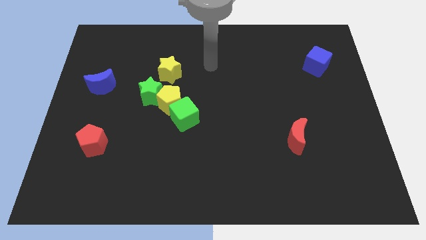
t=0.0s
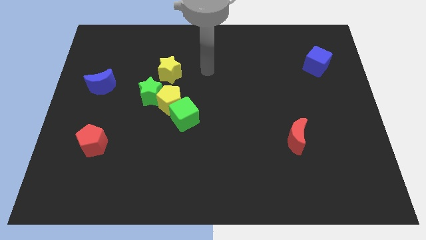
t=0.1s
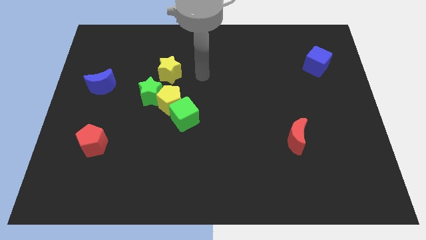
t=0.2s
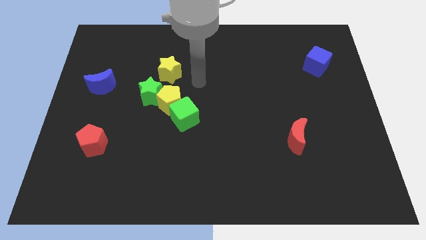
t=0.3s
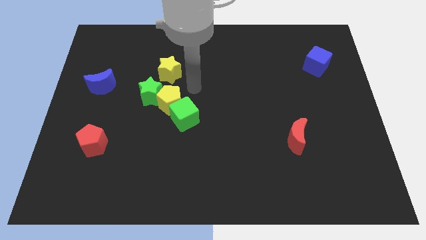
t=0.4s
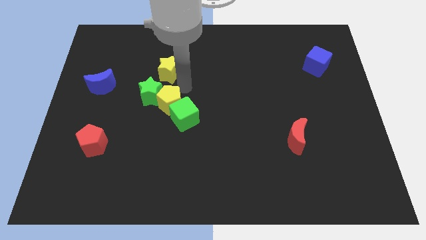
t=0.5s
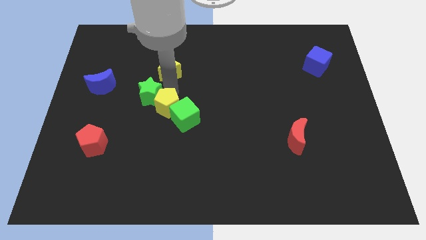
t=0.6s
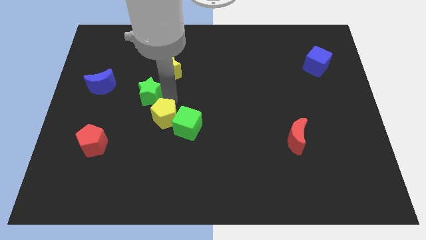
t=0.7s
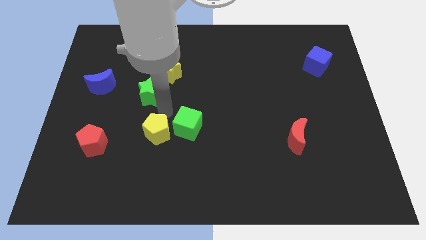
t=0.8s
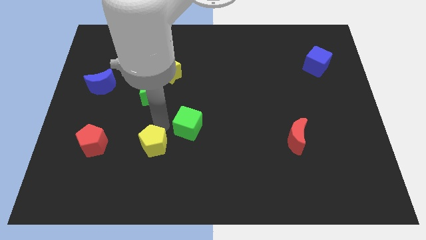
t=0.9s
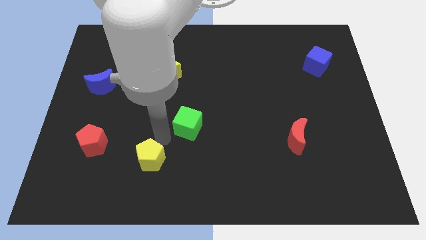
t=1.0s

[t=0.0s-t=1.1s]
move the green cube away from the yellow pentagon

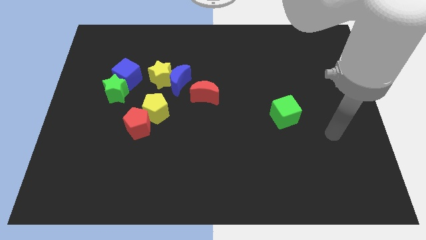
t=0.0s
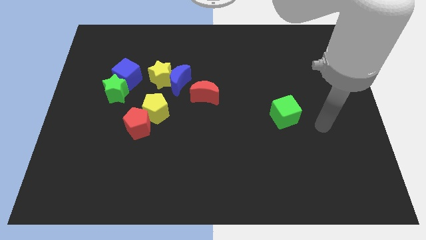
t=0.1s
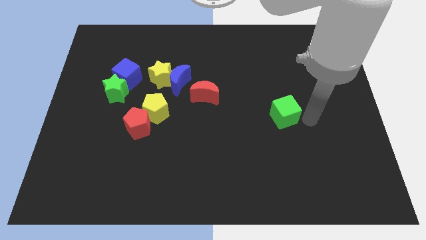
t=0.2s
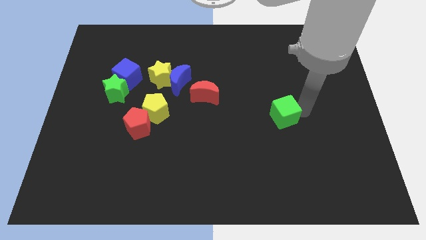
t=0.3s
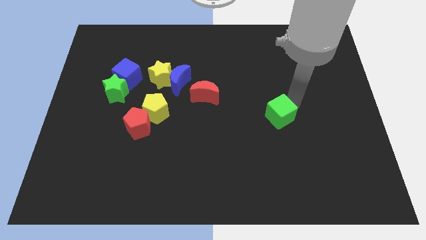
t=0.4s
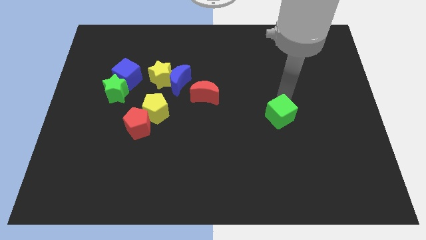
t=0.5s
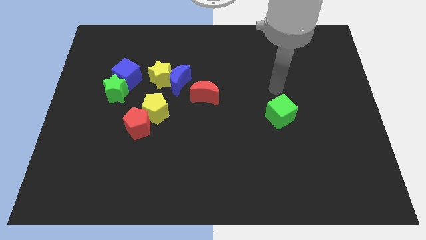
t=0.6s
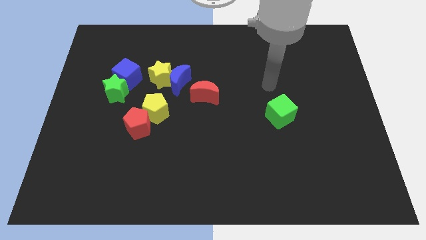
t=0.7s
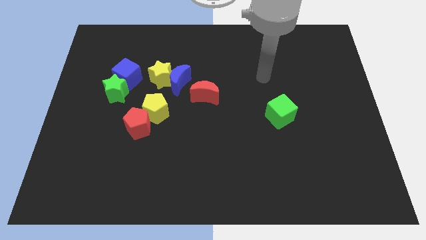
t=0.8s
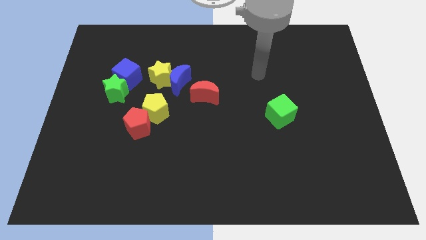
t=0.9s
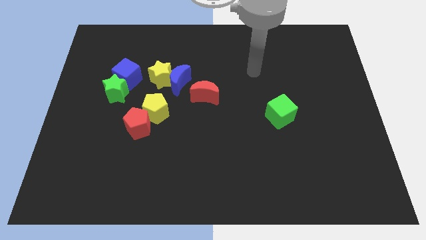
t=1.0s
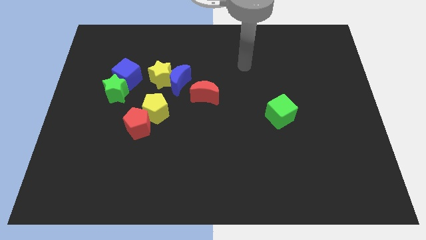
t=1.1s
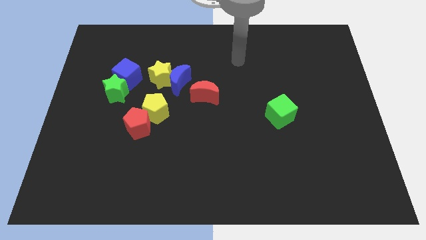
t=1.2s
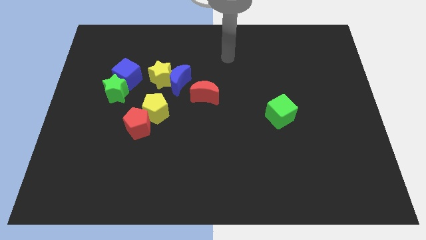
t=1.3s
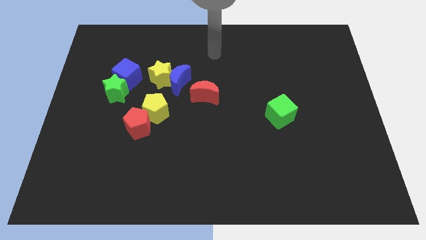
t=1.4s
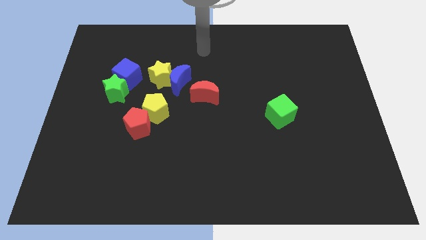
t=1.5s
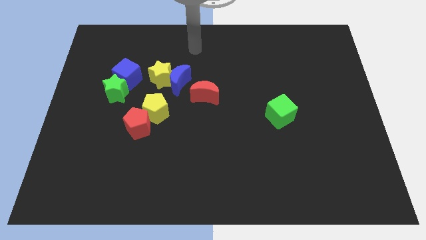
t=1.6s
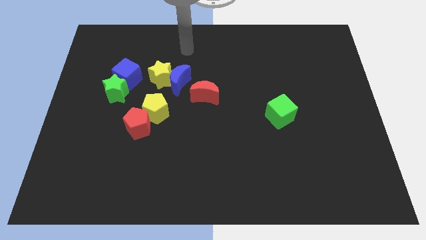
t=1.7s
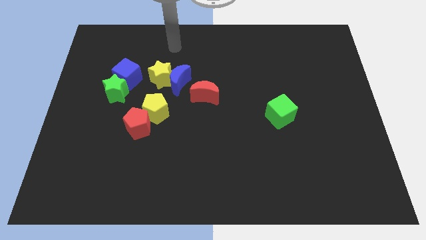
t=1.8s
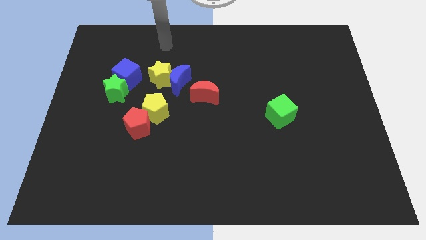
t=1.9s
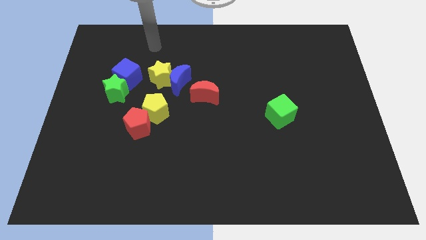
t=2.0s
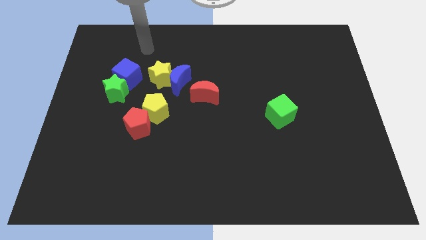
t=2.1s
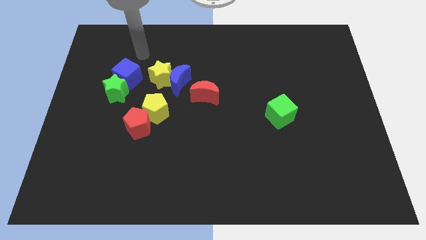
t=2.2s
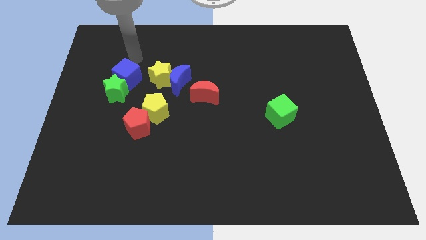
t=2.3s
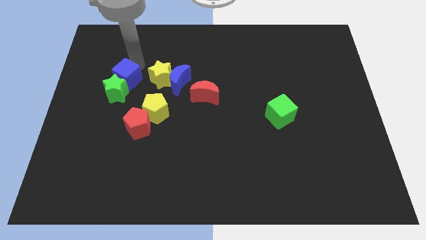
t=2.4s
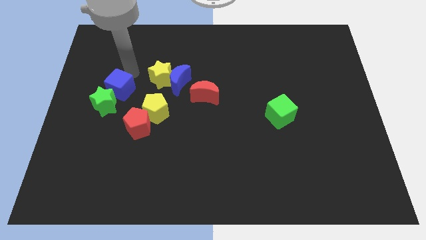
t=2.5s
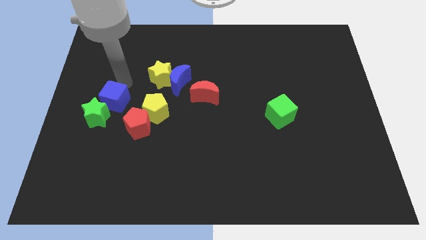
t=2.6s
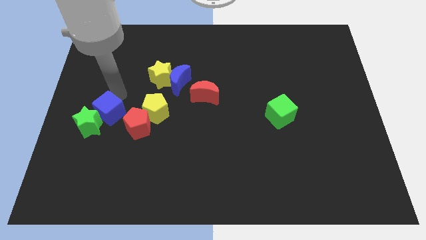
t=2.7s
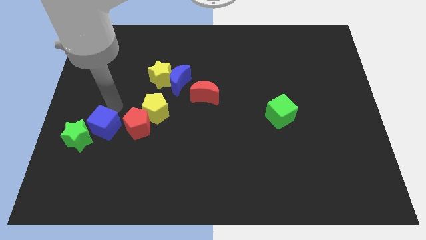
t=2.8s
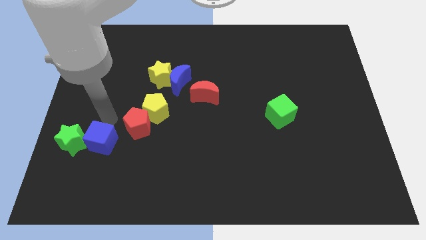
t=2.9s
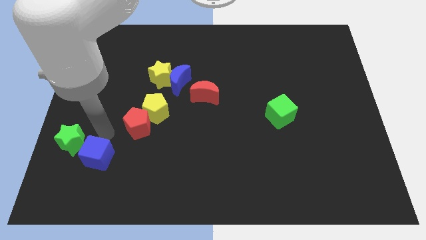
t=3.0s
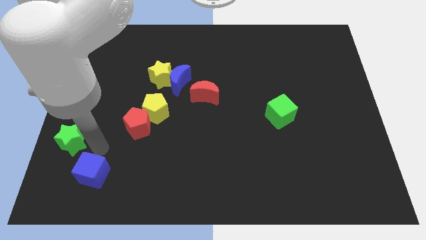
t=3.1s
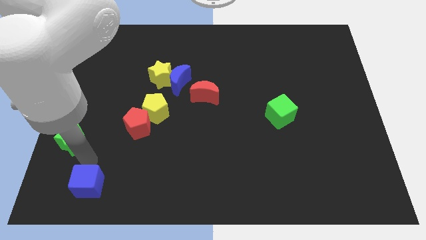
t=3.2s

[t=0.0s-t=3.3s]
separate the green star from the blue cube

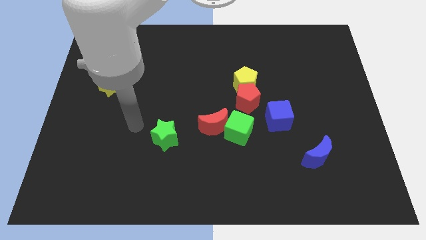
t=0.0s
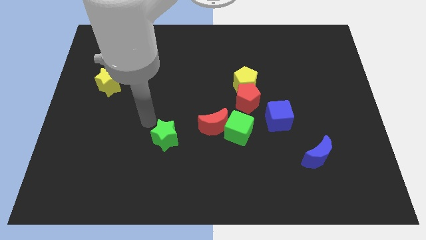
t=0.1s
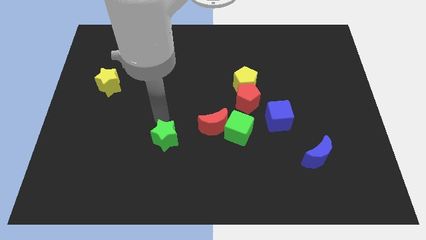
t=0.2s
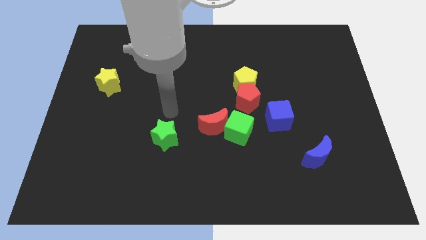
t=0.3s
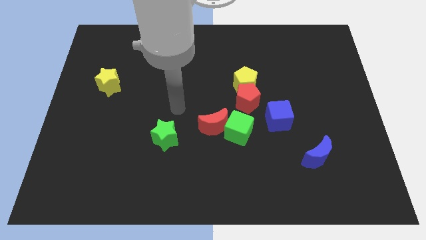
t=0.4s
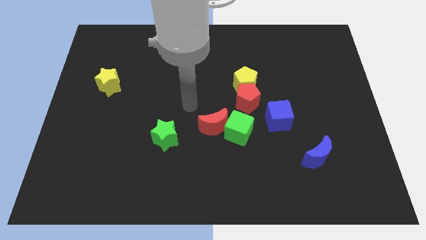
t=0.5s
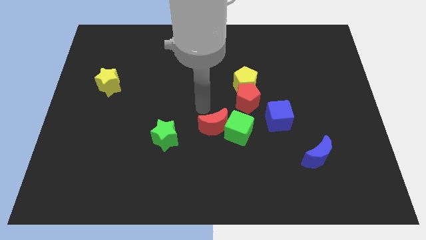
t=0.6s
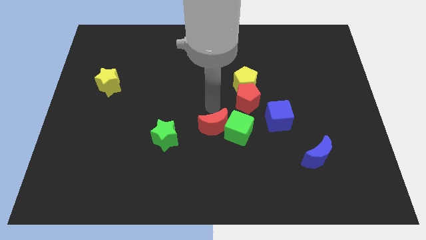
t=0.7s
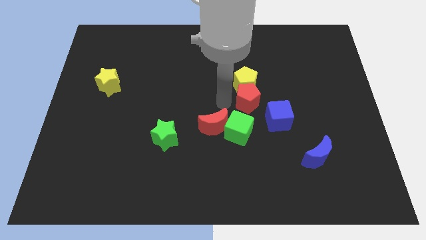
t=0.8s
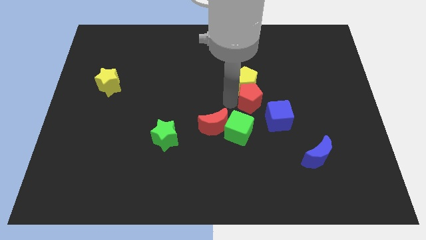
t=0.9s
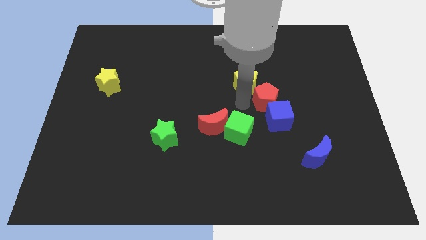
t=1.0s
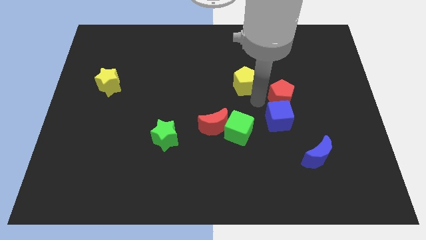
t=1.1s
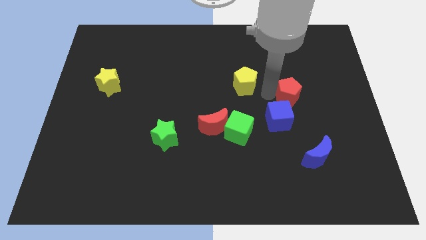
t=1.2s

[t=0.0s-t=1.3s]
separate the yellow pentagon from the red pentagon

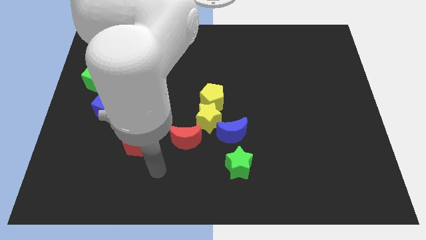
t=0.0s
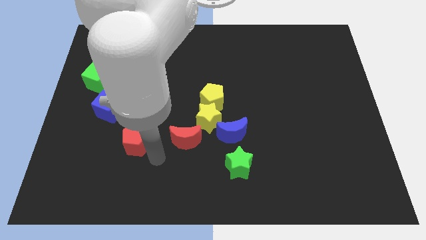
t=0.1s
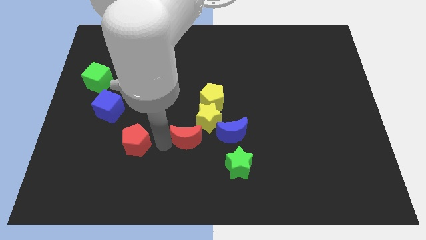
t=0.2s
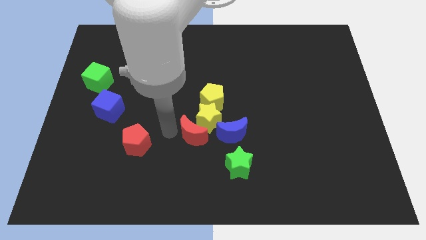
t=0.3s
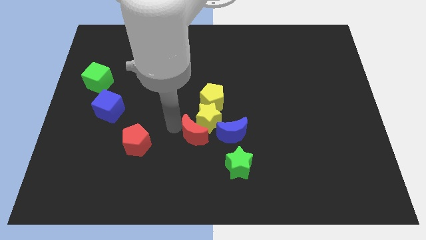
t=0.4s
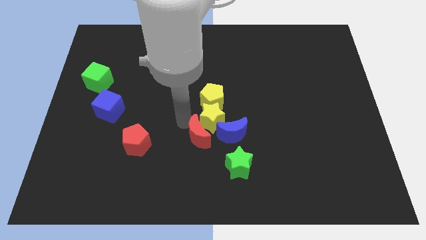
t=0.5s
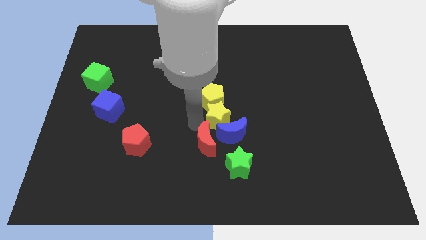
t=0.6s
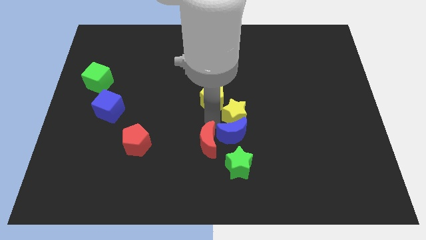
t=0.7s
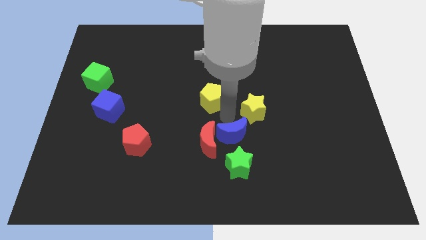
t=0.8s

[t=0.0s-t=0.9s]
separate the yellow pentagon from the yellow star

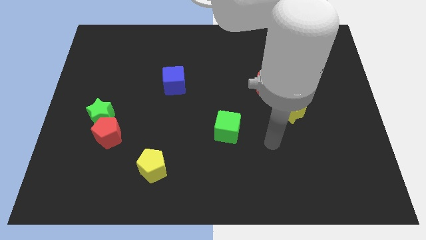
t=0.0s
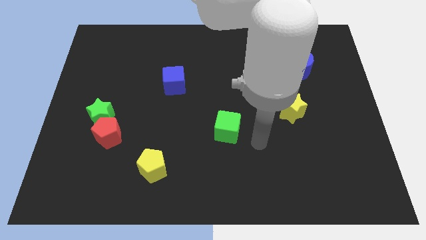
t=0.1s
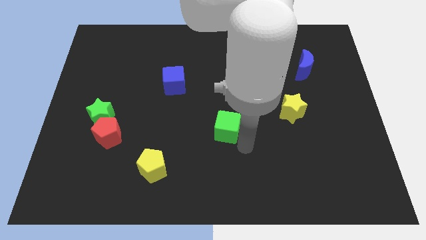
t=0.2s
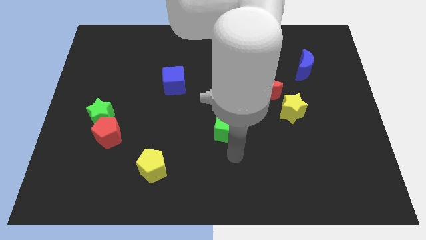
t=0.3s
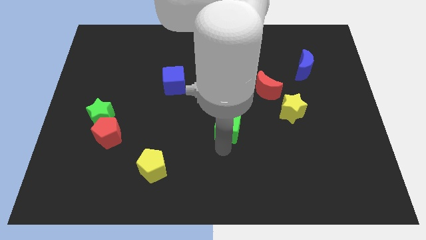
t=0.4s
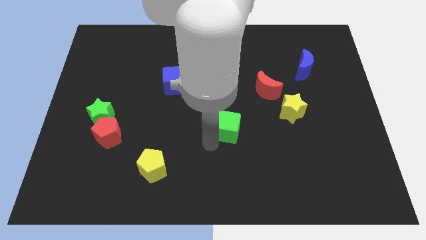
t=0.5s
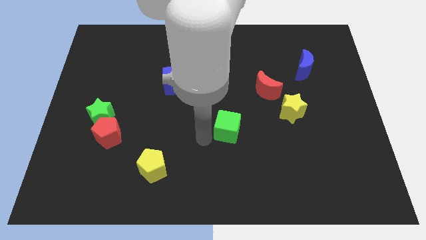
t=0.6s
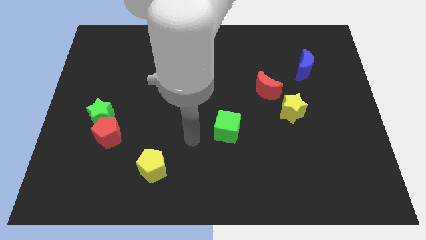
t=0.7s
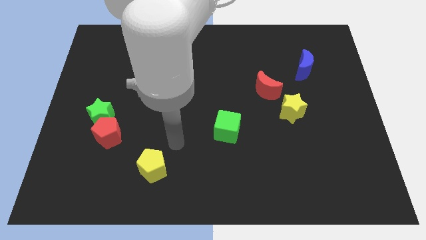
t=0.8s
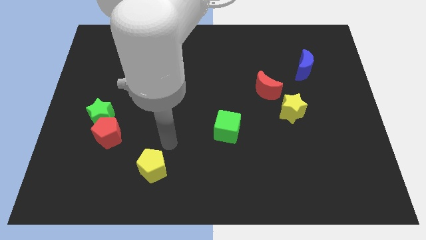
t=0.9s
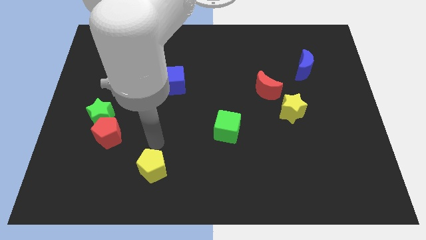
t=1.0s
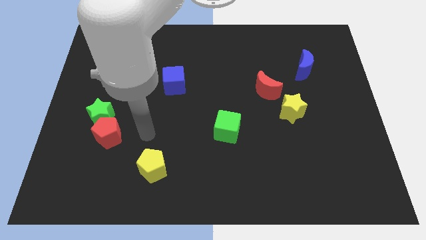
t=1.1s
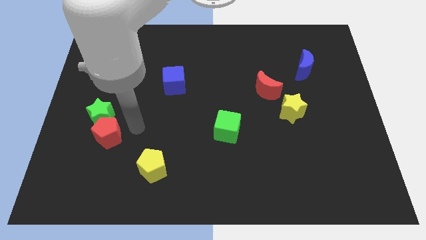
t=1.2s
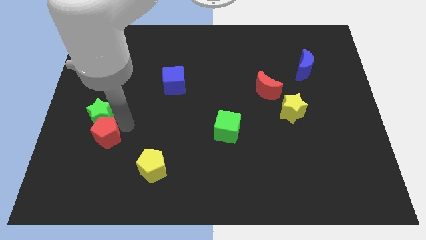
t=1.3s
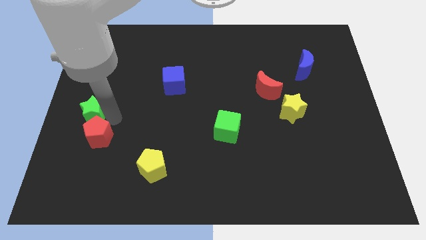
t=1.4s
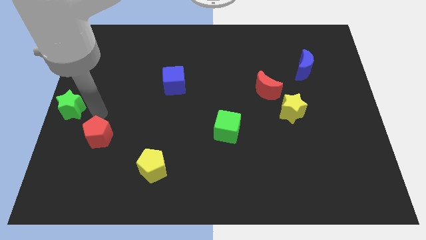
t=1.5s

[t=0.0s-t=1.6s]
move the red pentagon away from the green star

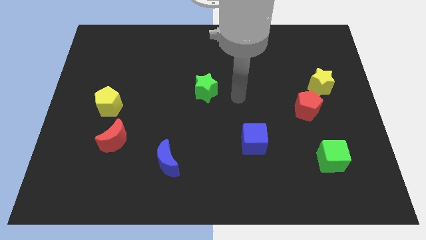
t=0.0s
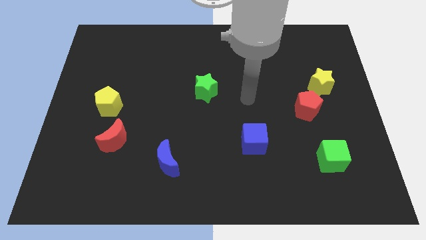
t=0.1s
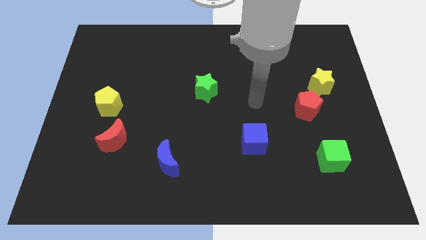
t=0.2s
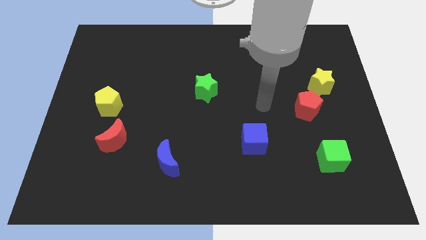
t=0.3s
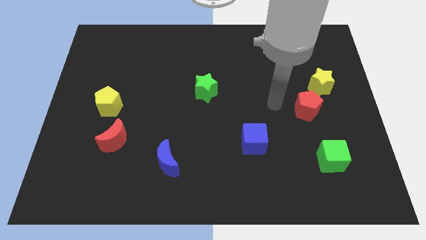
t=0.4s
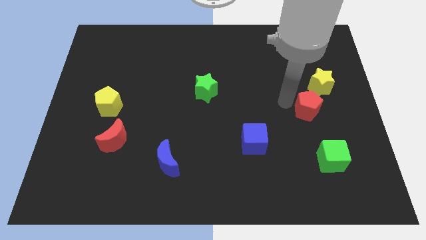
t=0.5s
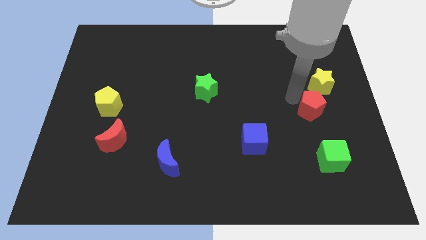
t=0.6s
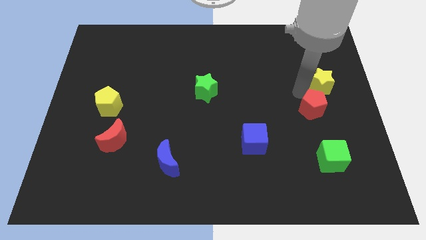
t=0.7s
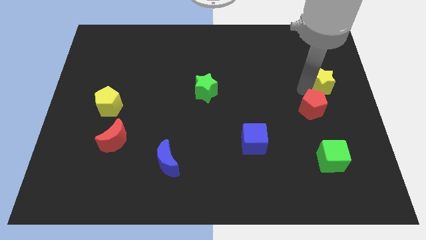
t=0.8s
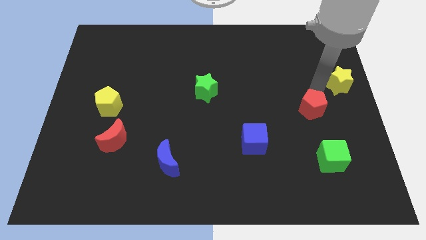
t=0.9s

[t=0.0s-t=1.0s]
pull the red pentagon apart from the yellow star
